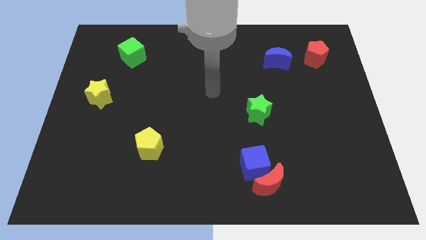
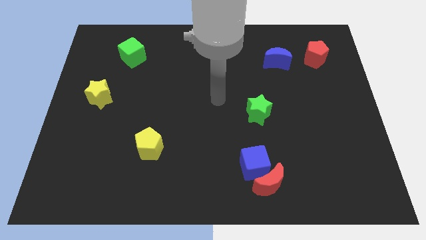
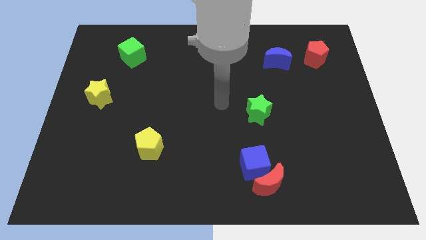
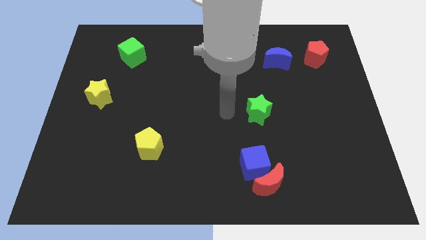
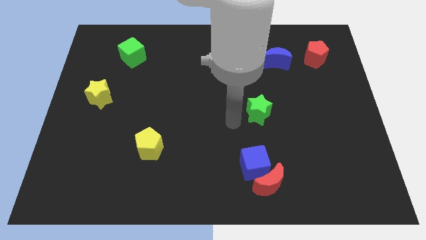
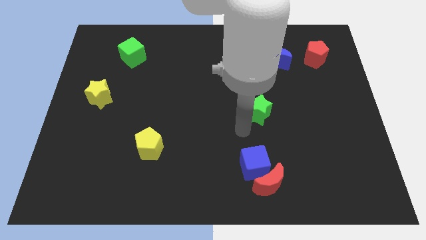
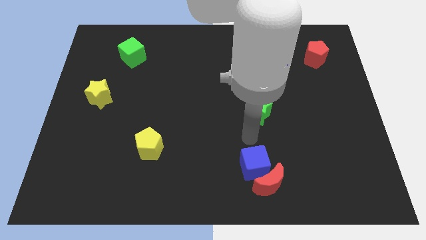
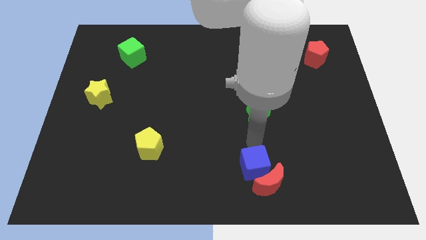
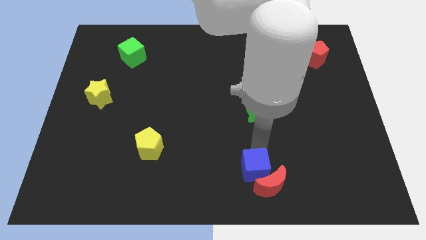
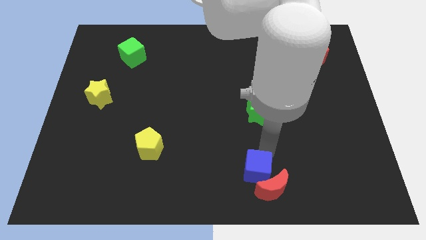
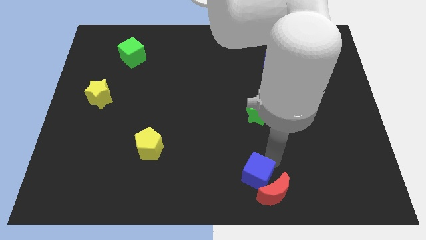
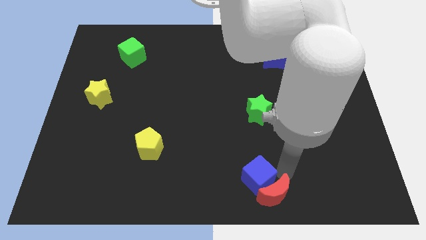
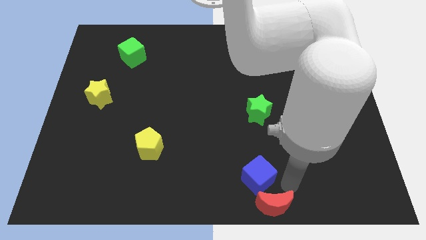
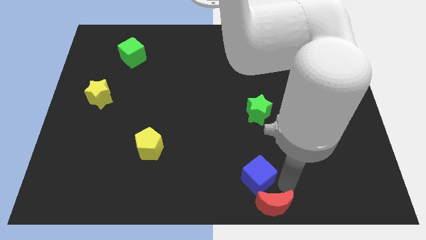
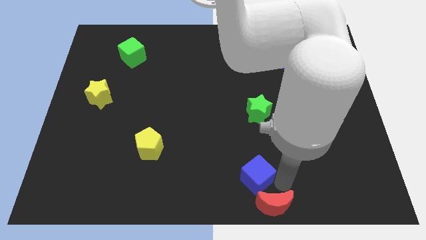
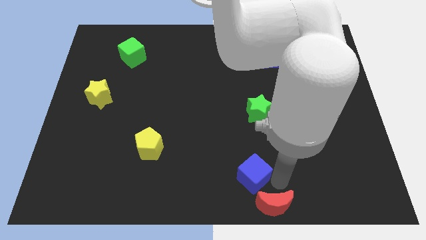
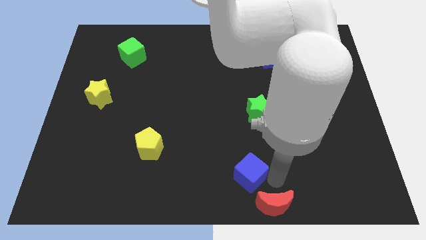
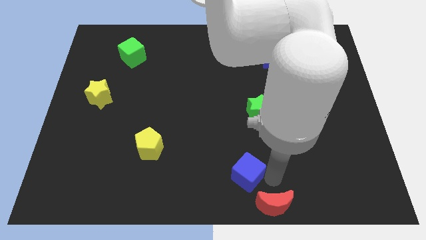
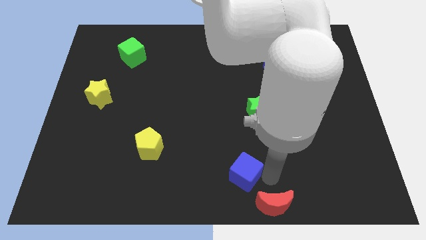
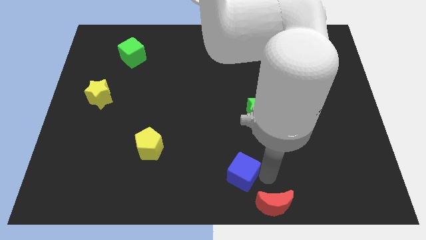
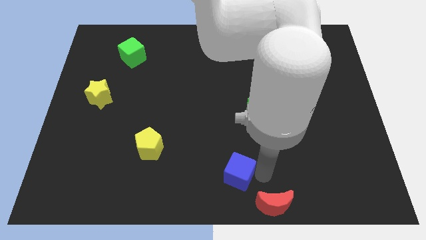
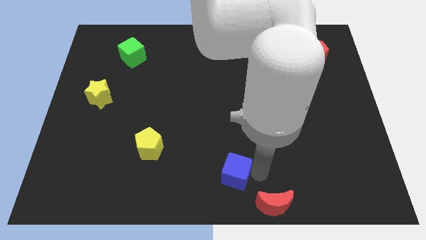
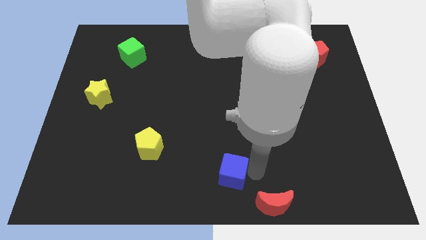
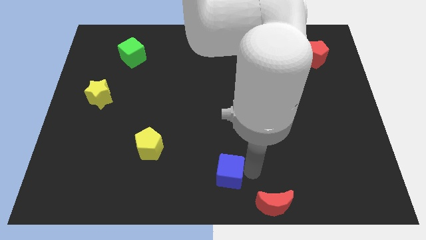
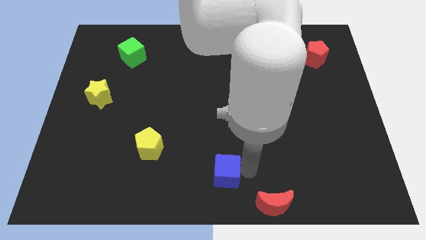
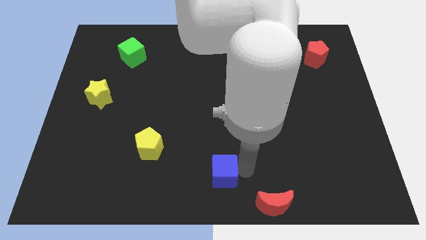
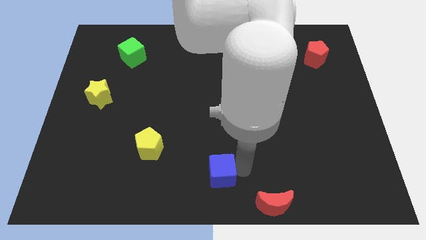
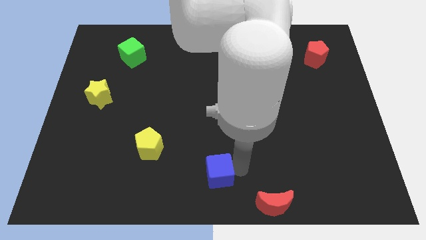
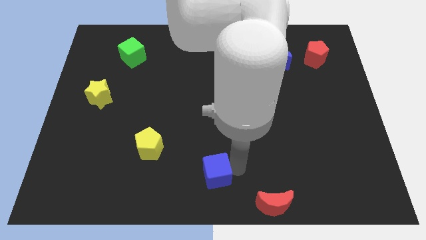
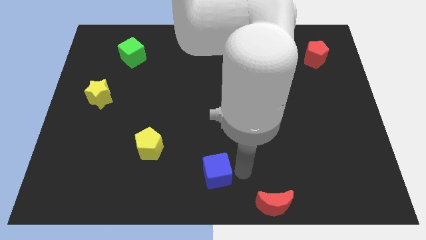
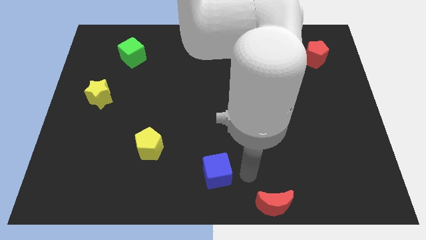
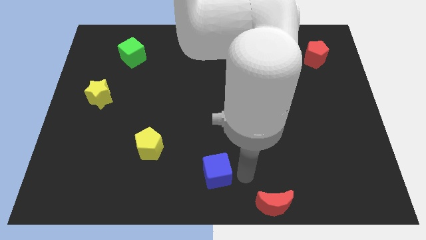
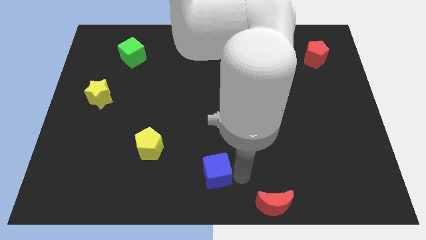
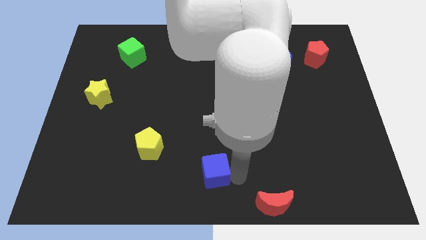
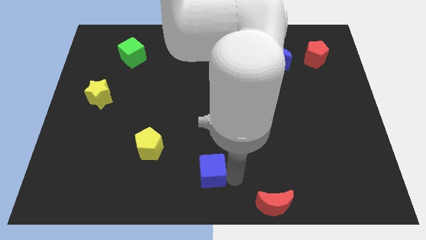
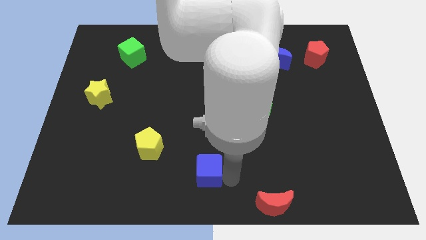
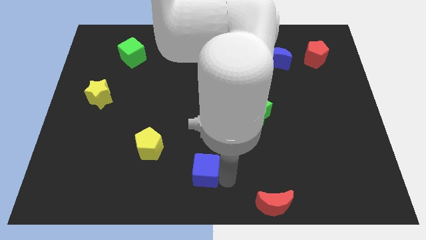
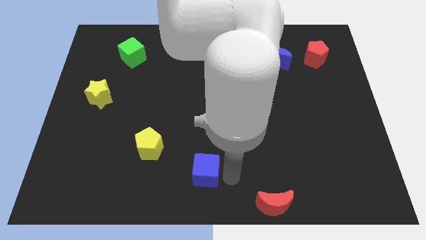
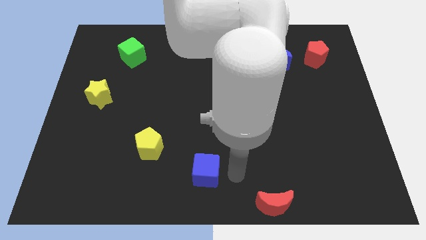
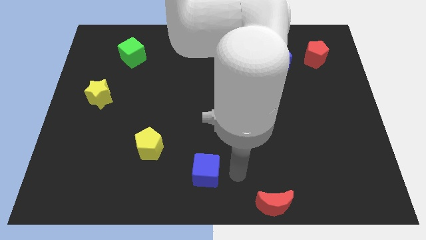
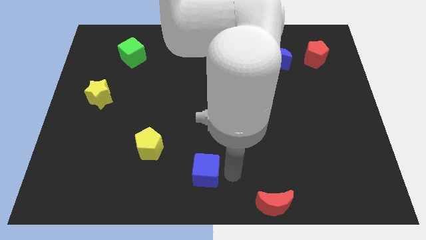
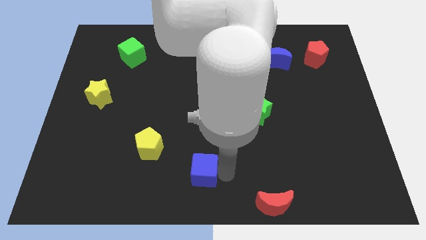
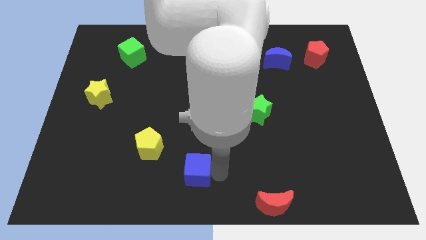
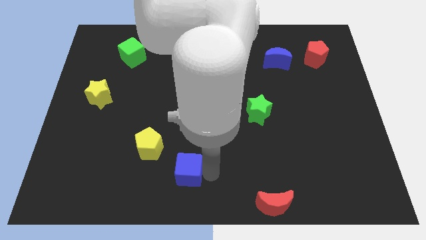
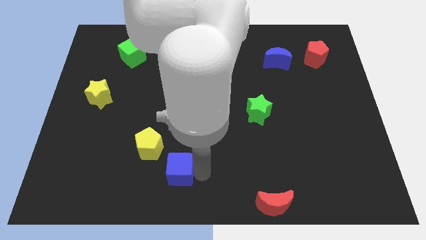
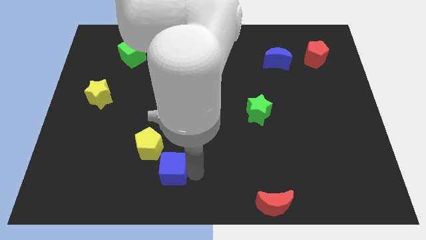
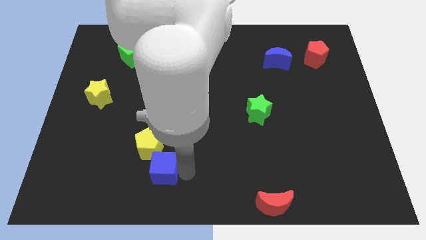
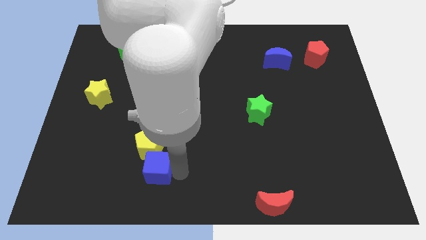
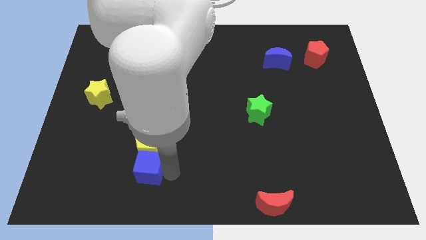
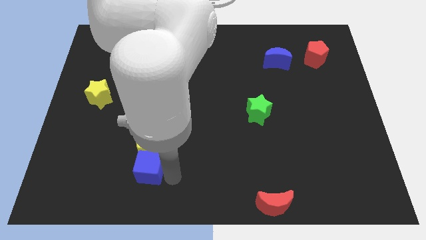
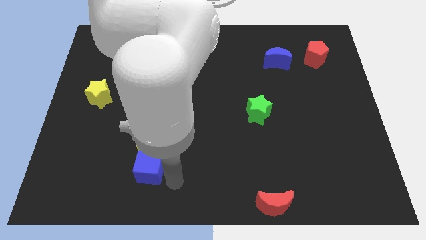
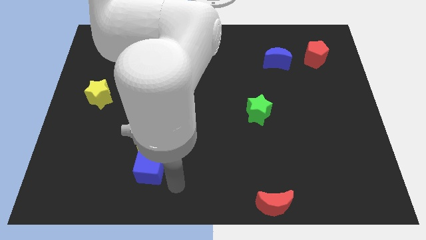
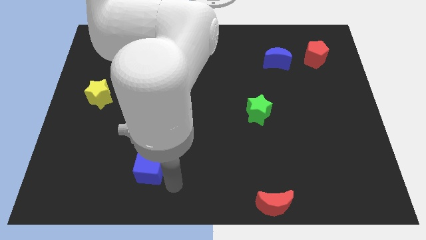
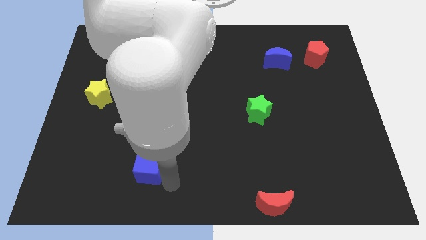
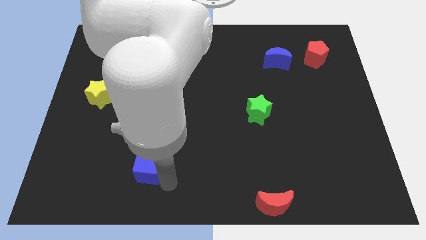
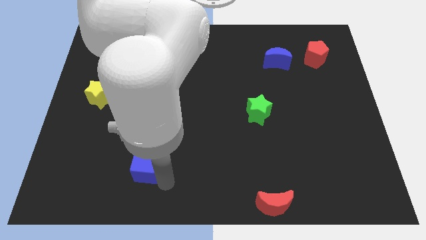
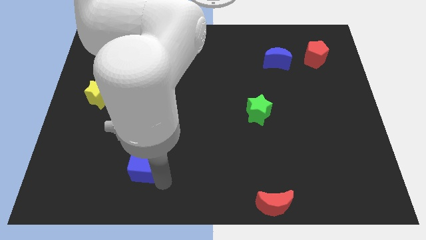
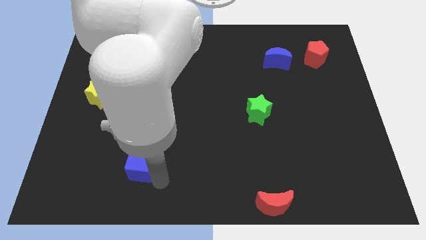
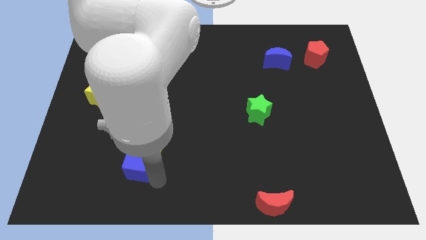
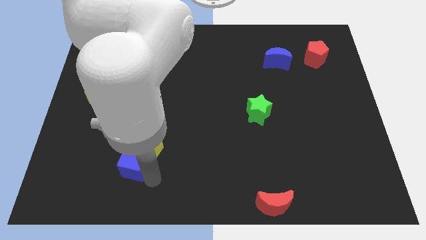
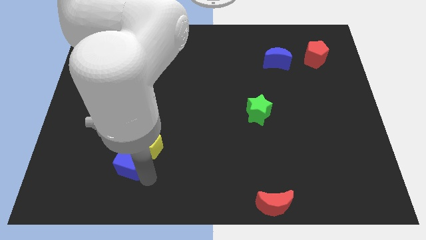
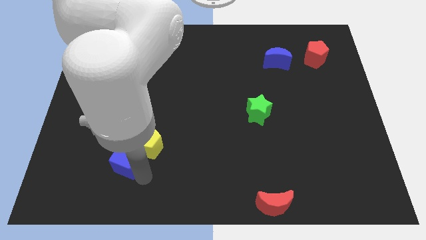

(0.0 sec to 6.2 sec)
push the blue cube just left of the yellow pentagon

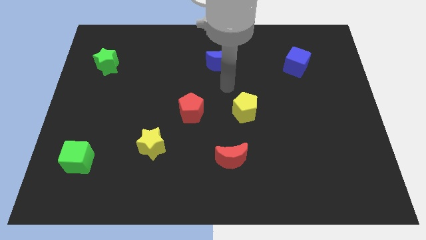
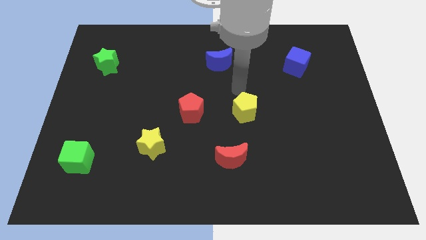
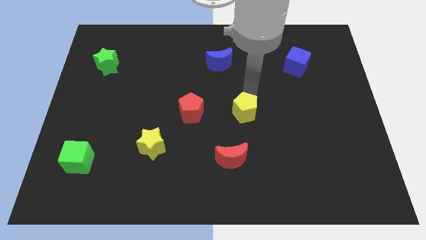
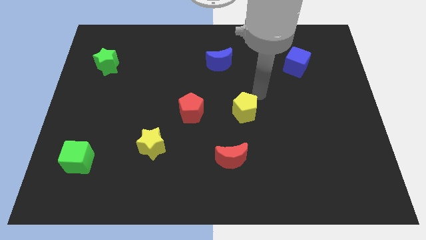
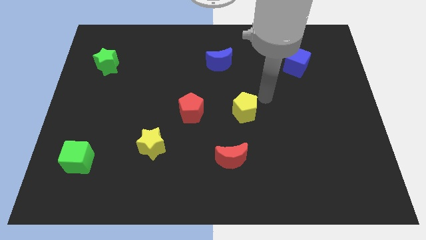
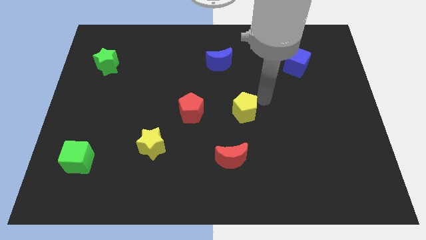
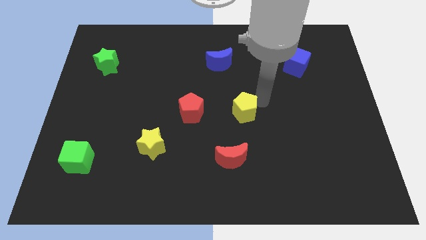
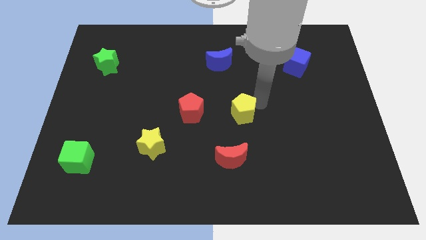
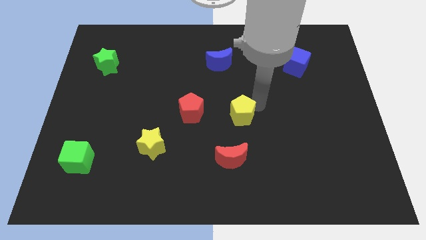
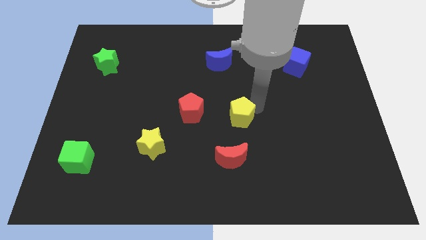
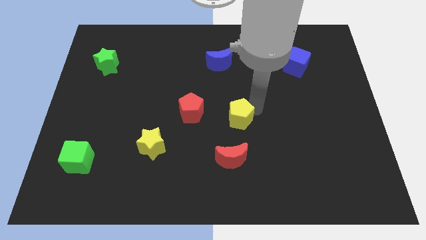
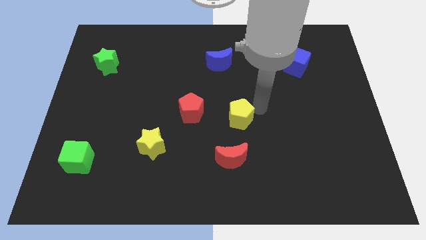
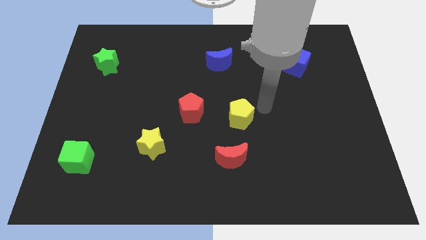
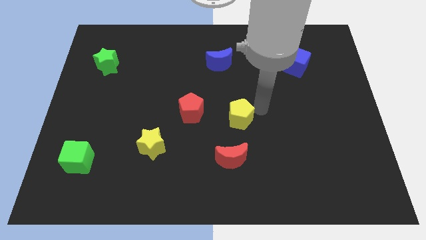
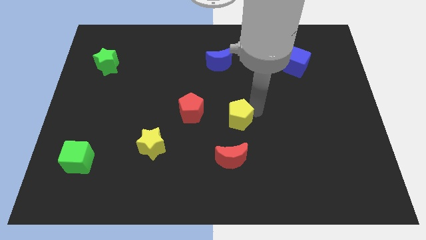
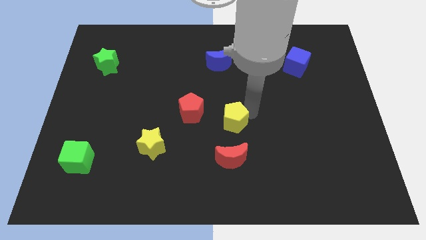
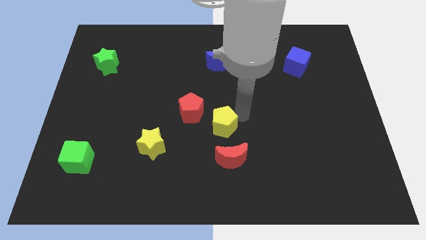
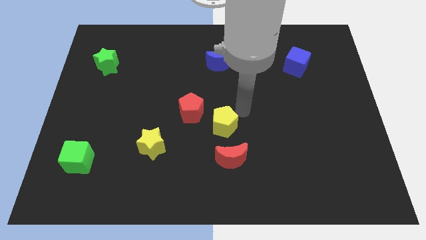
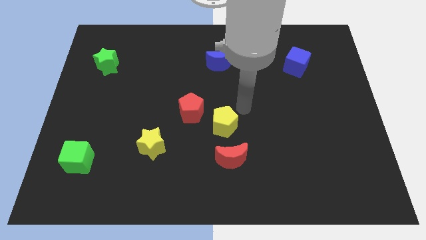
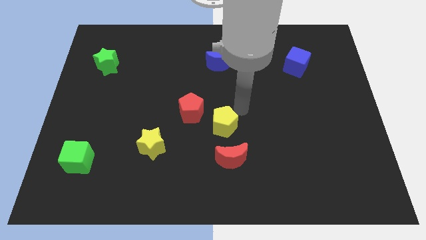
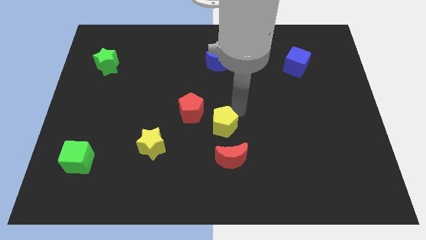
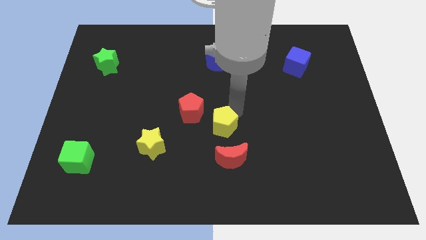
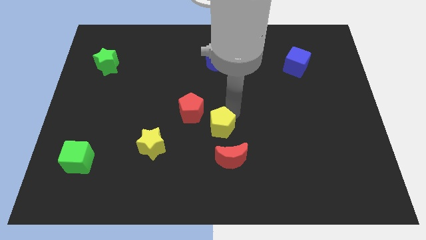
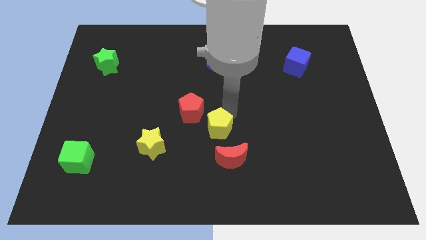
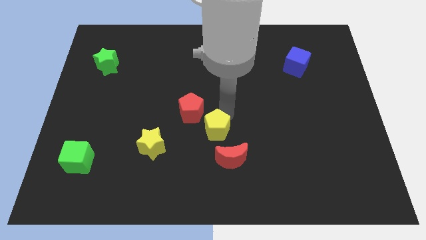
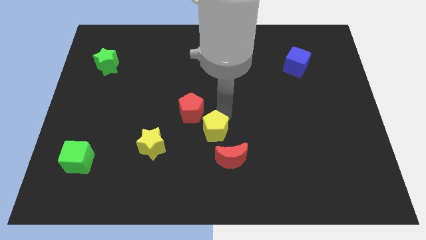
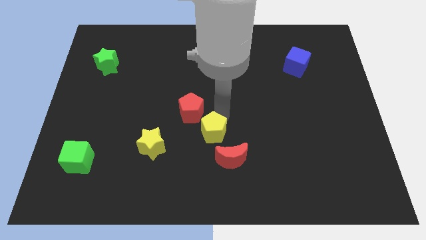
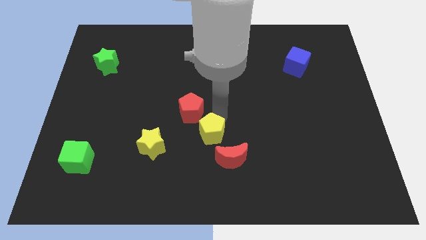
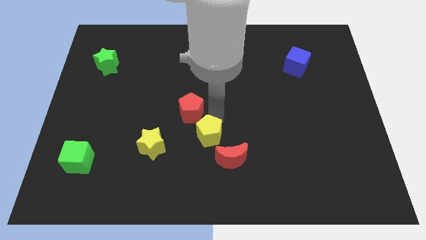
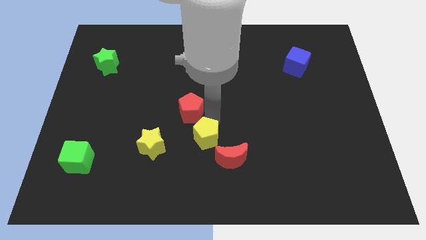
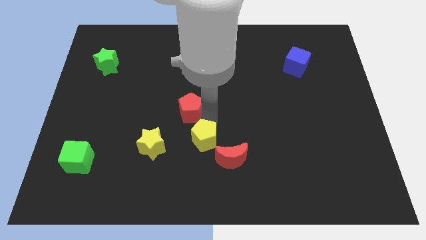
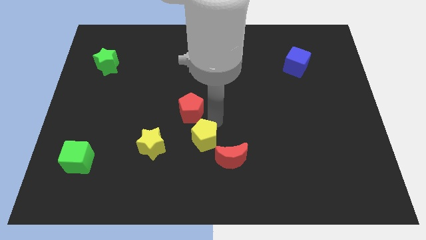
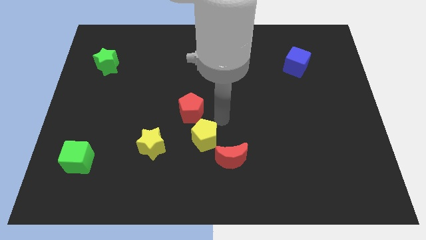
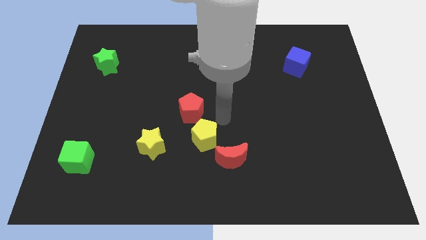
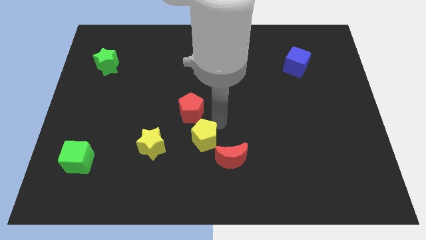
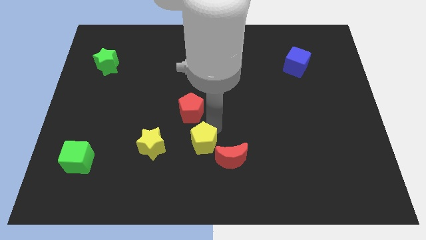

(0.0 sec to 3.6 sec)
push the yellow pentagon to the left of the red moon
